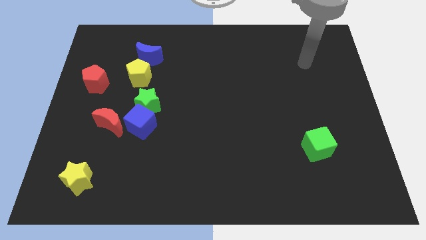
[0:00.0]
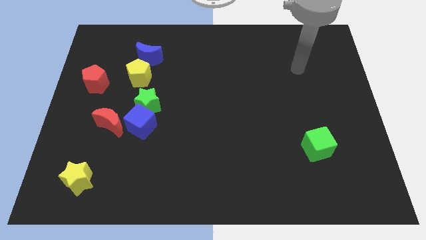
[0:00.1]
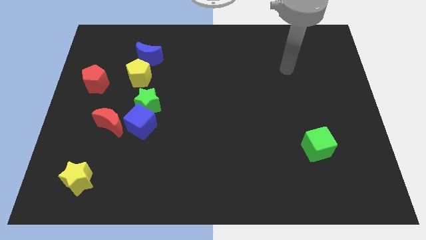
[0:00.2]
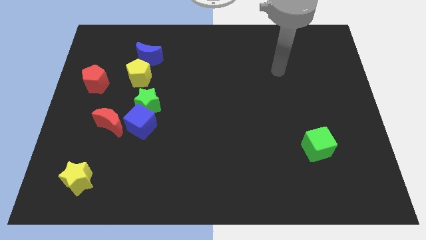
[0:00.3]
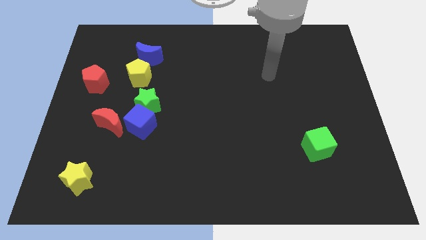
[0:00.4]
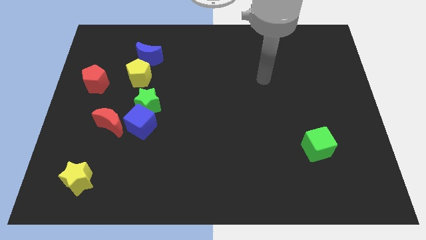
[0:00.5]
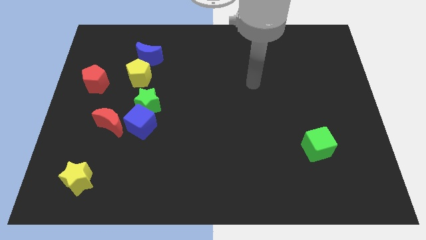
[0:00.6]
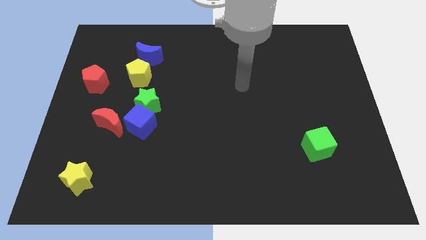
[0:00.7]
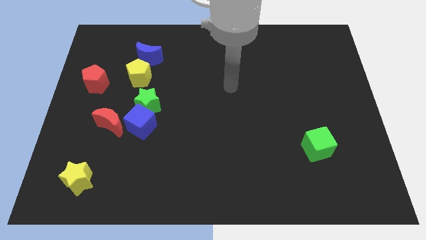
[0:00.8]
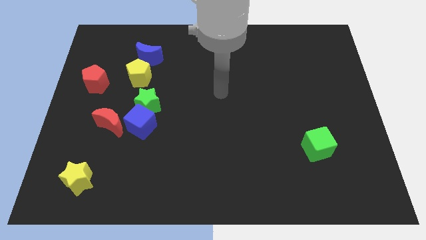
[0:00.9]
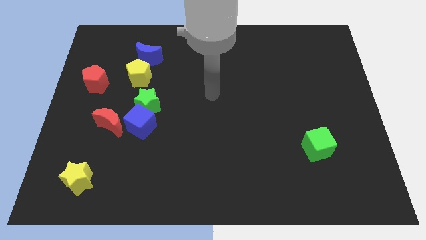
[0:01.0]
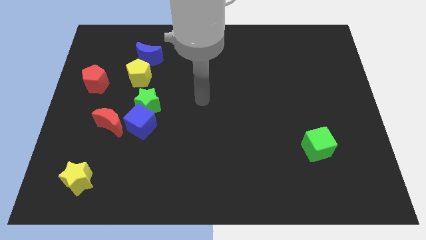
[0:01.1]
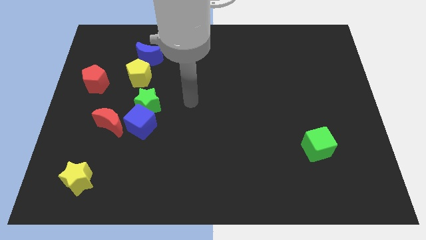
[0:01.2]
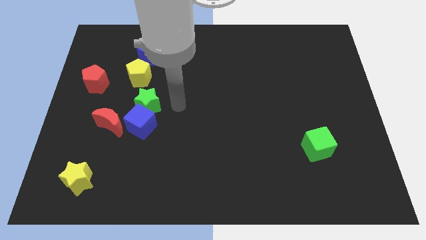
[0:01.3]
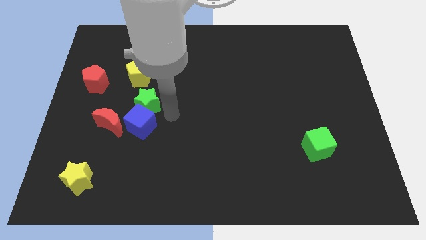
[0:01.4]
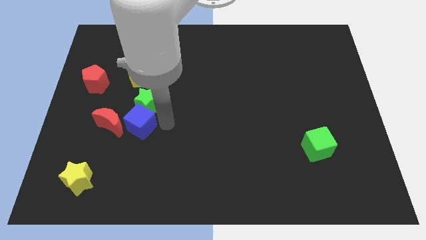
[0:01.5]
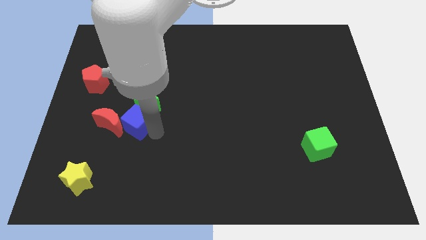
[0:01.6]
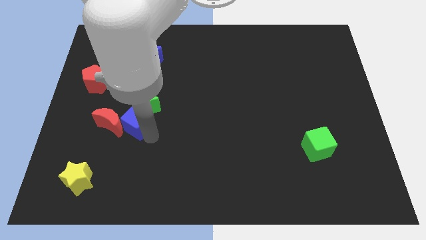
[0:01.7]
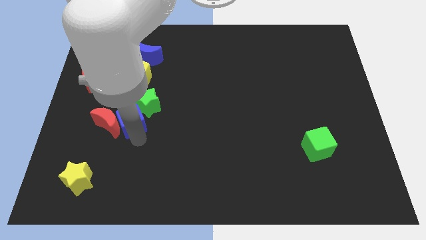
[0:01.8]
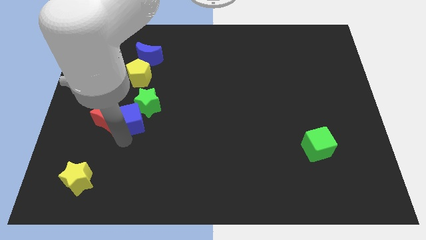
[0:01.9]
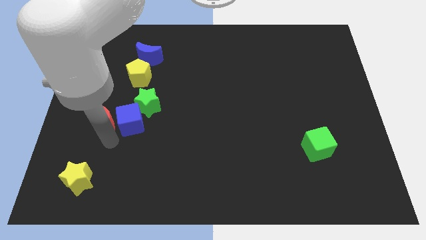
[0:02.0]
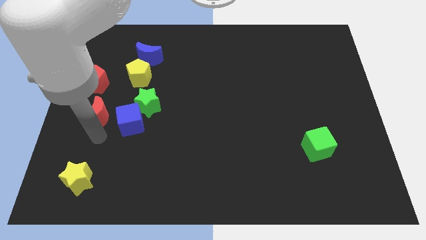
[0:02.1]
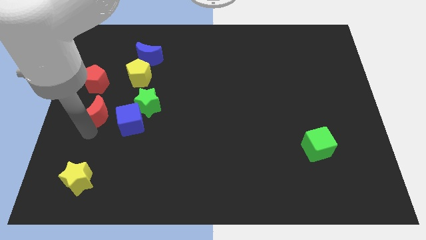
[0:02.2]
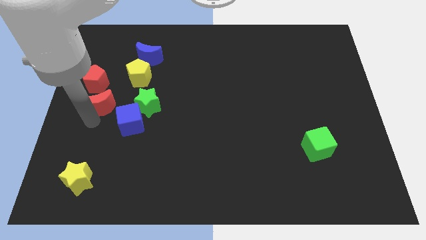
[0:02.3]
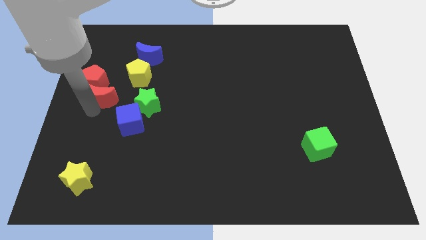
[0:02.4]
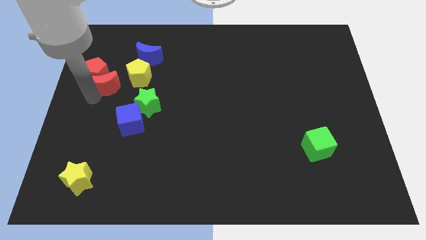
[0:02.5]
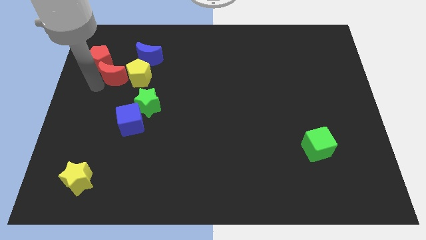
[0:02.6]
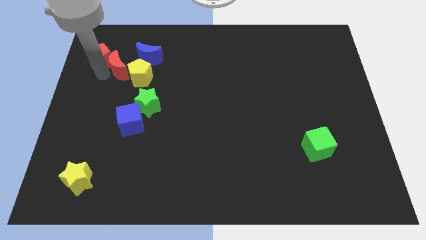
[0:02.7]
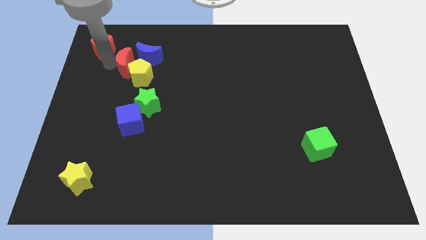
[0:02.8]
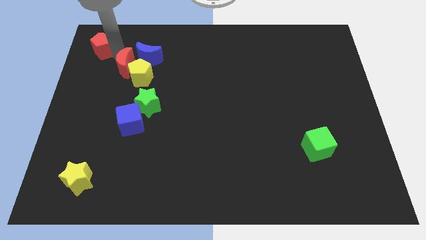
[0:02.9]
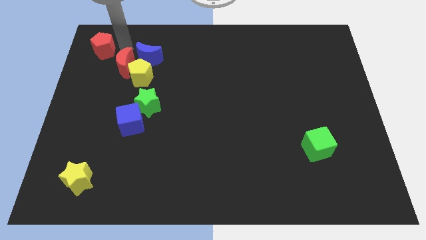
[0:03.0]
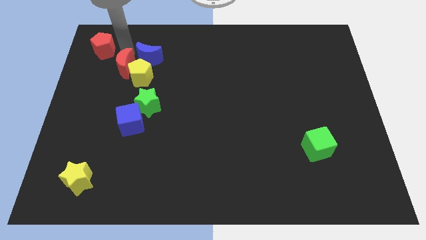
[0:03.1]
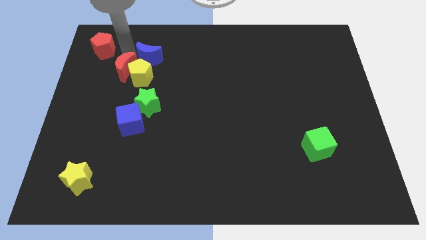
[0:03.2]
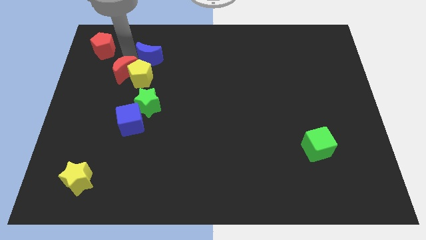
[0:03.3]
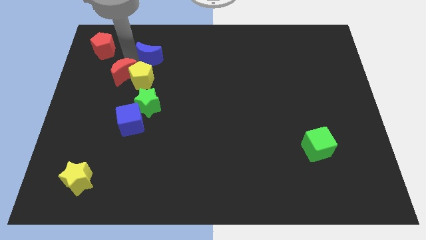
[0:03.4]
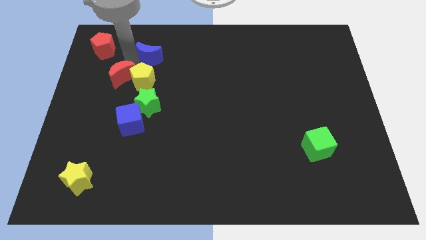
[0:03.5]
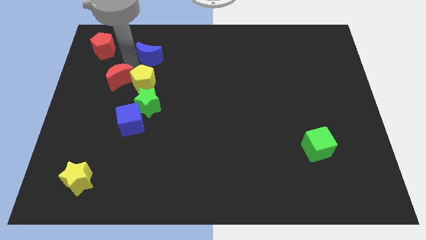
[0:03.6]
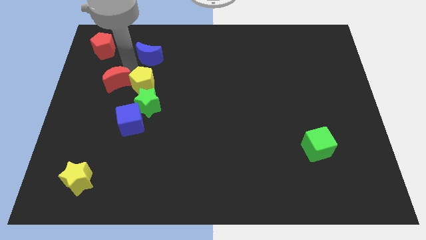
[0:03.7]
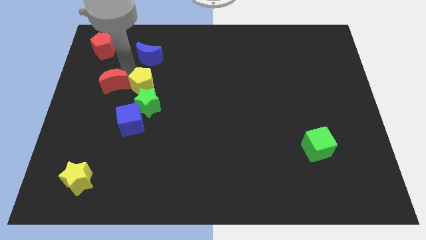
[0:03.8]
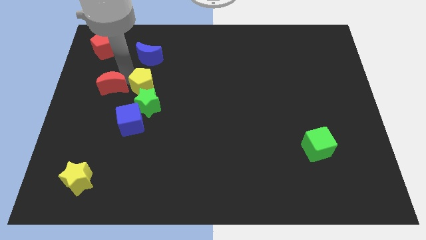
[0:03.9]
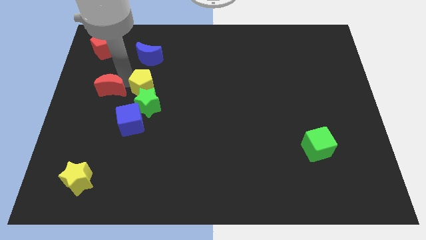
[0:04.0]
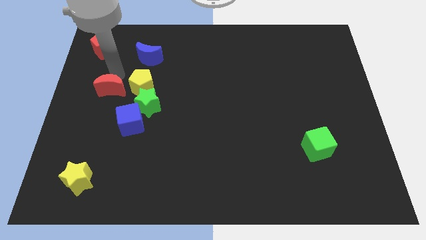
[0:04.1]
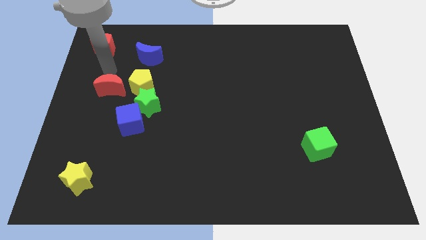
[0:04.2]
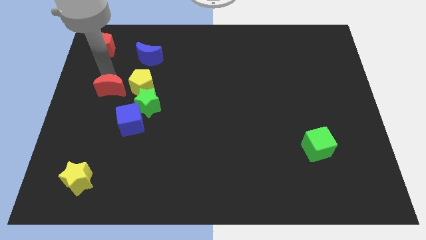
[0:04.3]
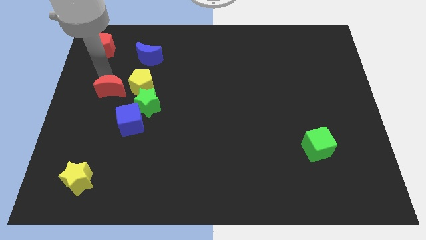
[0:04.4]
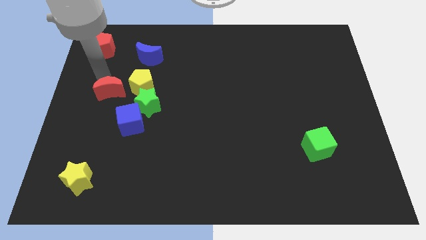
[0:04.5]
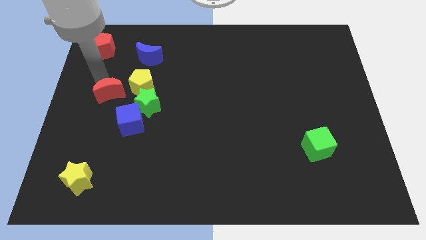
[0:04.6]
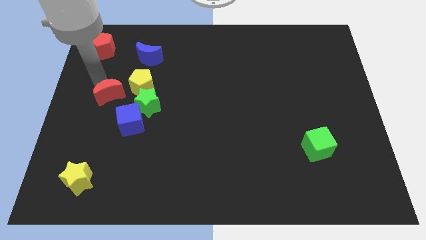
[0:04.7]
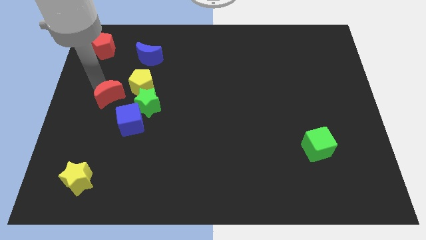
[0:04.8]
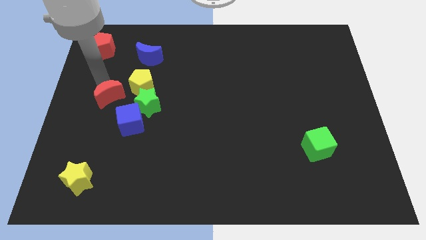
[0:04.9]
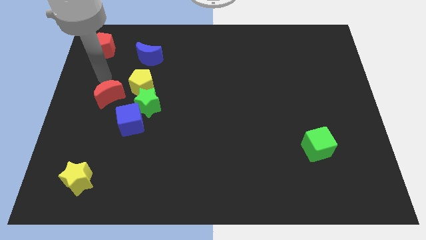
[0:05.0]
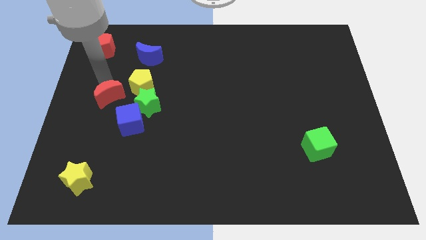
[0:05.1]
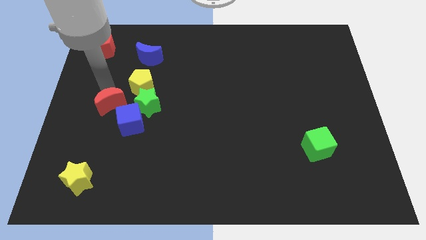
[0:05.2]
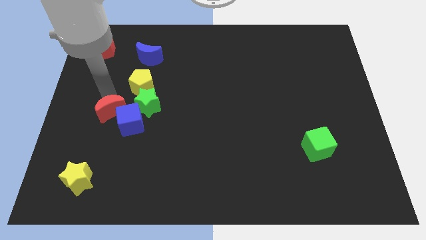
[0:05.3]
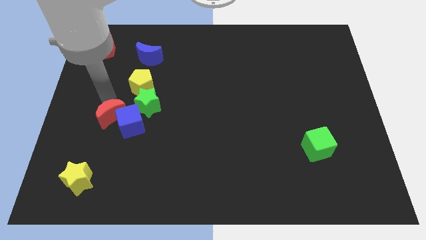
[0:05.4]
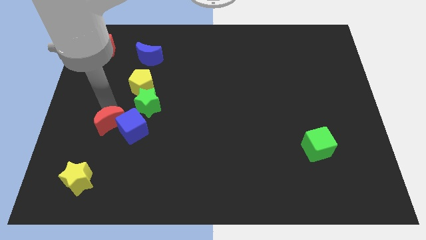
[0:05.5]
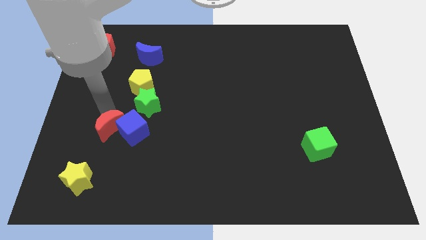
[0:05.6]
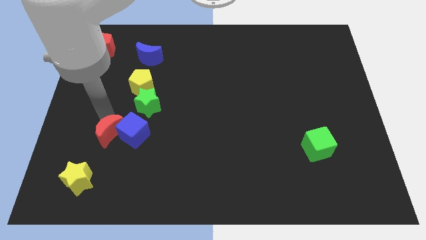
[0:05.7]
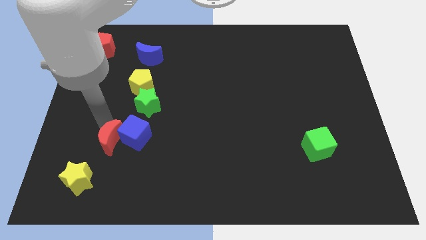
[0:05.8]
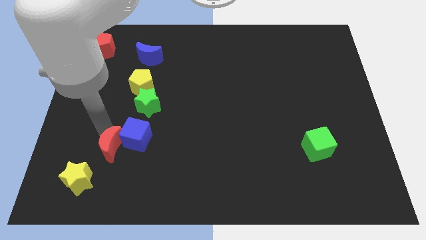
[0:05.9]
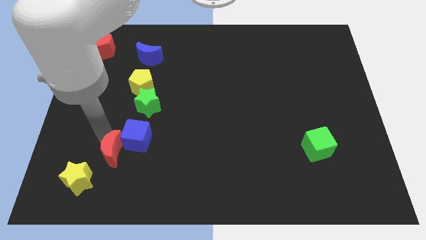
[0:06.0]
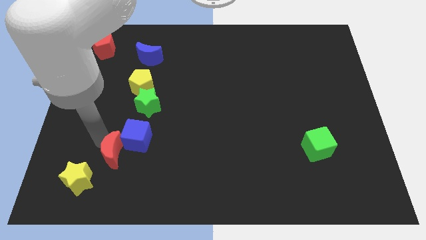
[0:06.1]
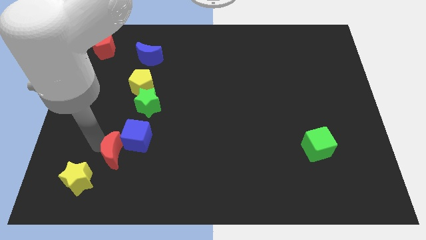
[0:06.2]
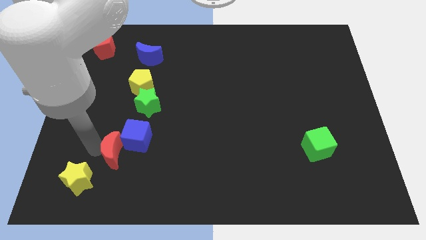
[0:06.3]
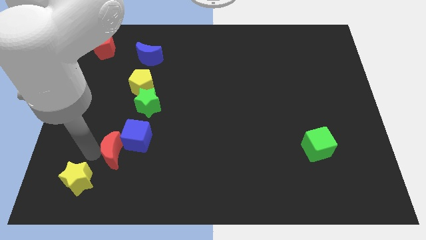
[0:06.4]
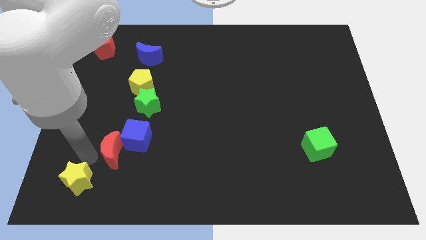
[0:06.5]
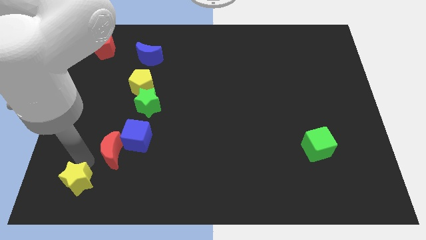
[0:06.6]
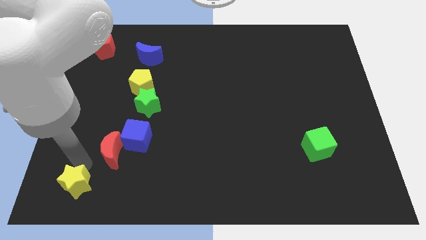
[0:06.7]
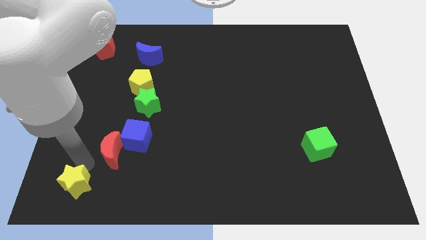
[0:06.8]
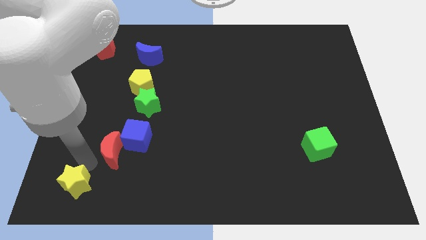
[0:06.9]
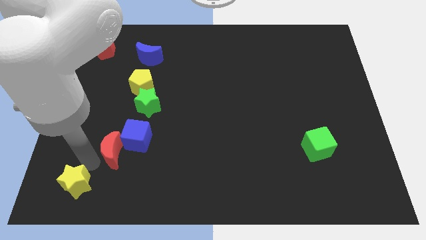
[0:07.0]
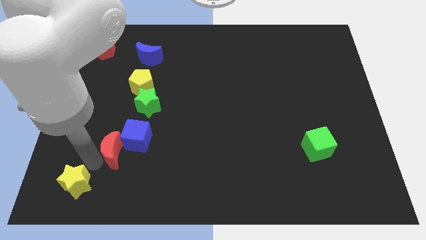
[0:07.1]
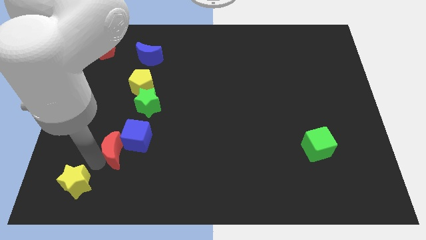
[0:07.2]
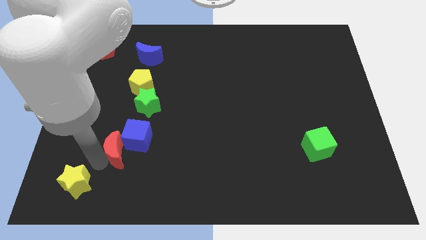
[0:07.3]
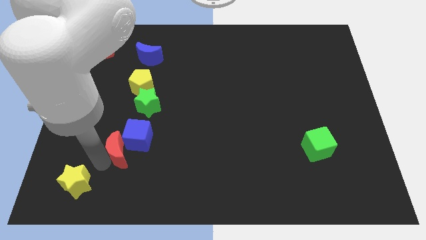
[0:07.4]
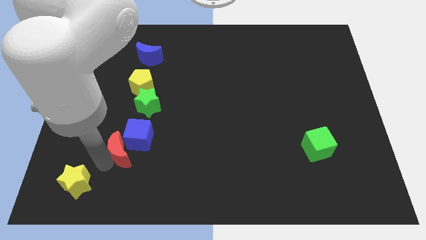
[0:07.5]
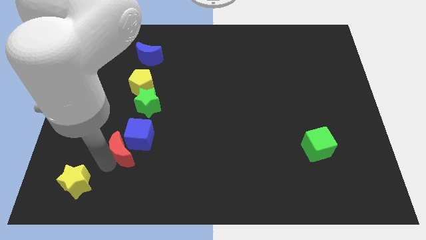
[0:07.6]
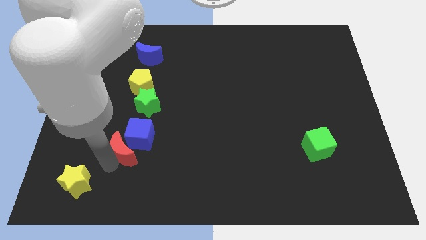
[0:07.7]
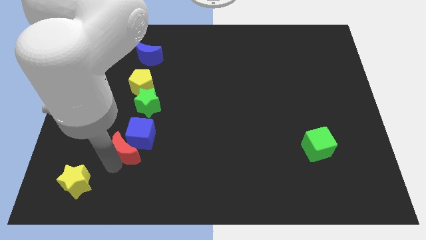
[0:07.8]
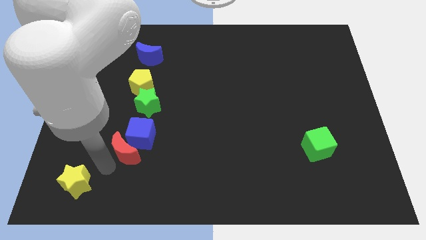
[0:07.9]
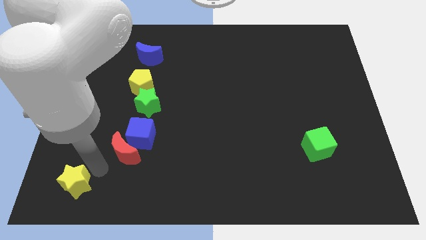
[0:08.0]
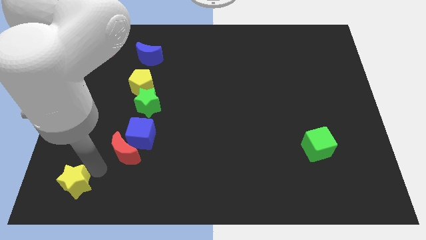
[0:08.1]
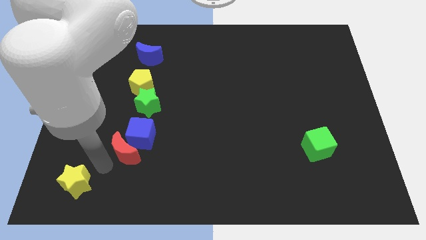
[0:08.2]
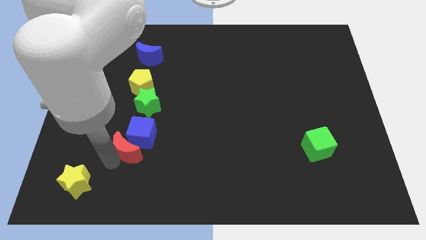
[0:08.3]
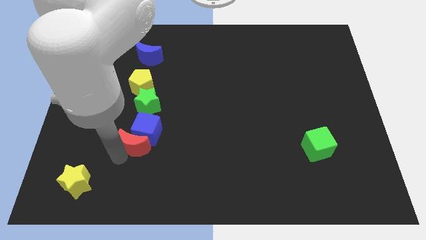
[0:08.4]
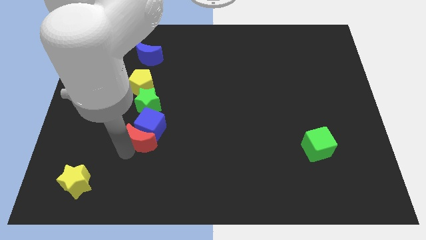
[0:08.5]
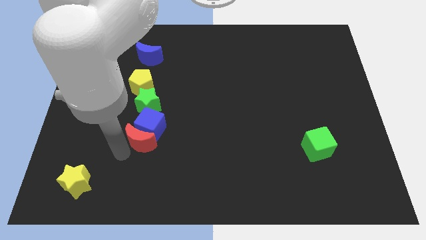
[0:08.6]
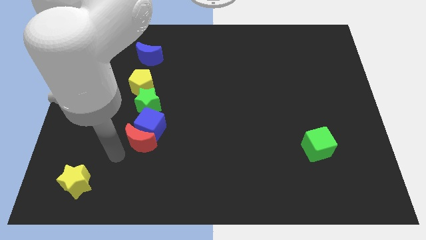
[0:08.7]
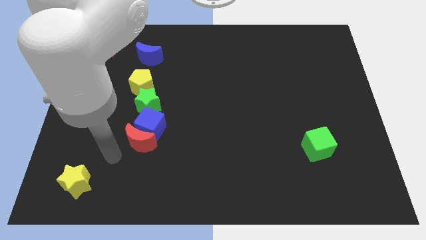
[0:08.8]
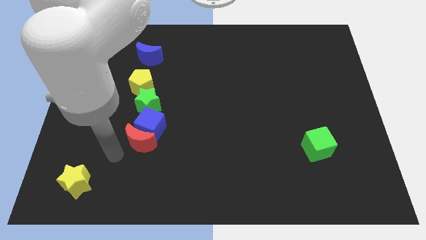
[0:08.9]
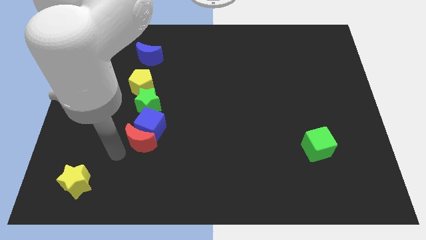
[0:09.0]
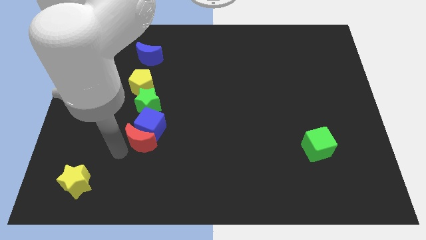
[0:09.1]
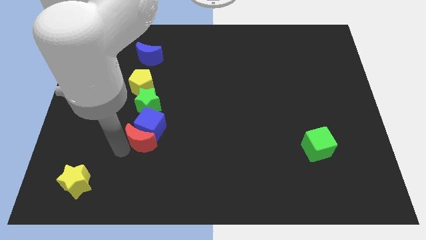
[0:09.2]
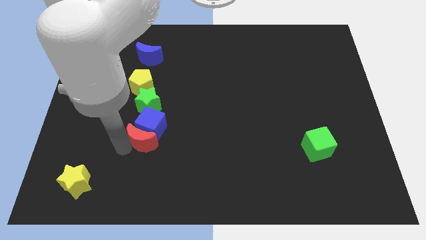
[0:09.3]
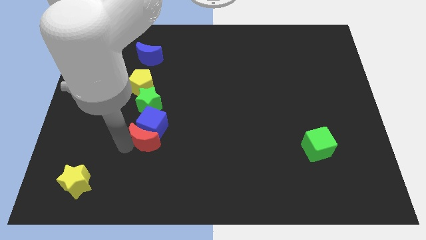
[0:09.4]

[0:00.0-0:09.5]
move the red moon to the right a little bit
